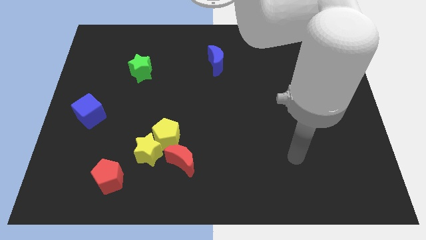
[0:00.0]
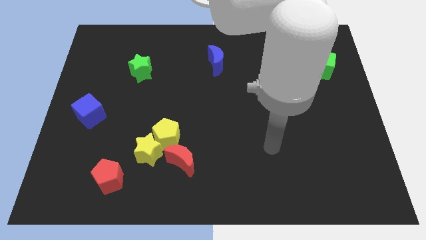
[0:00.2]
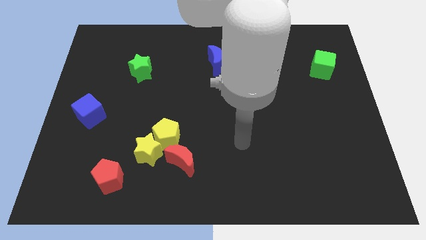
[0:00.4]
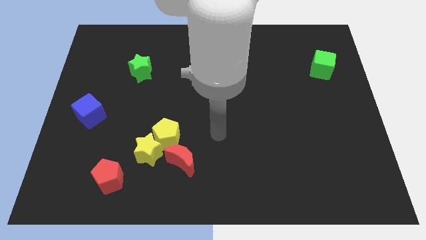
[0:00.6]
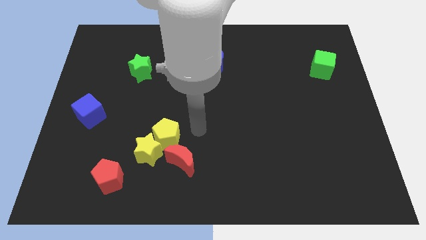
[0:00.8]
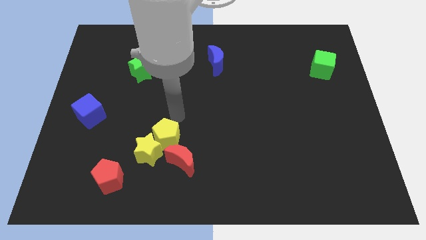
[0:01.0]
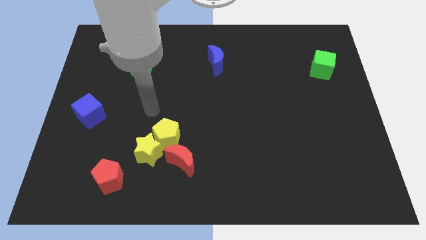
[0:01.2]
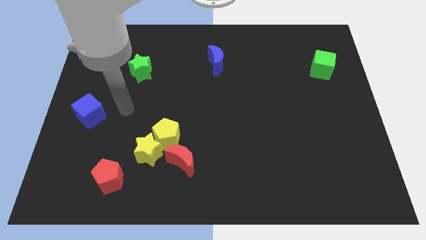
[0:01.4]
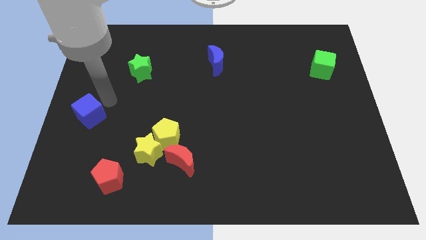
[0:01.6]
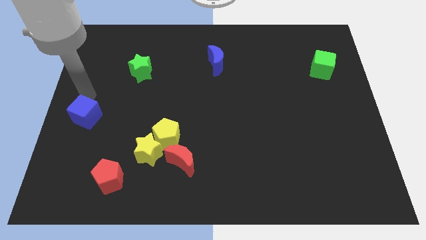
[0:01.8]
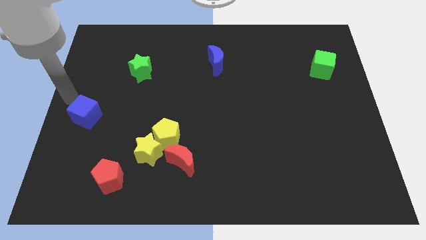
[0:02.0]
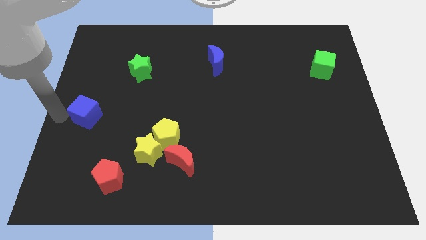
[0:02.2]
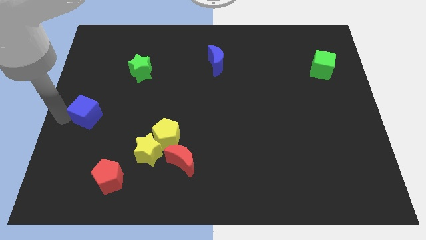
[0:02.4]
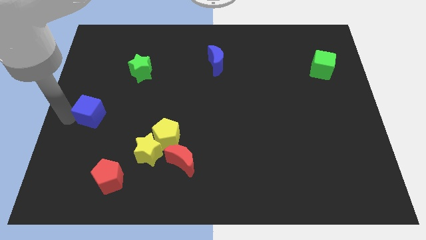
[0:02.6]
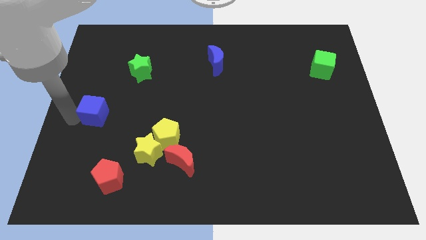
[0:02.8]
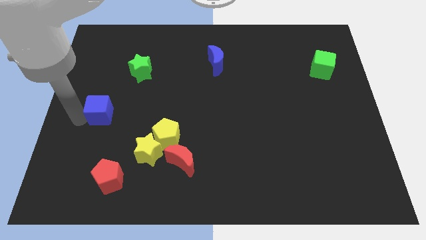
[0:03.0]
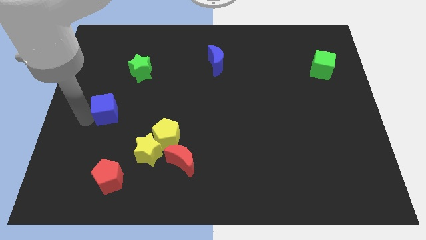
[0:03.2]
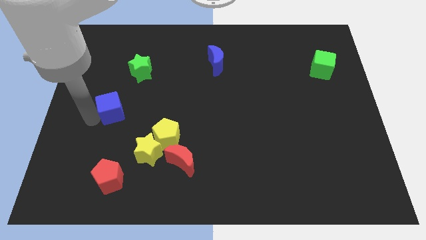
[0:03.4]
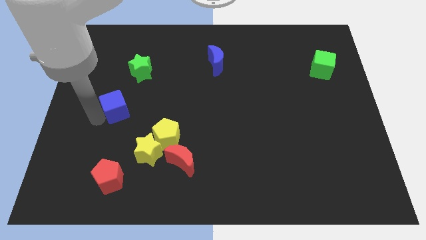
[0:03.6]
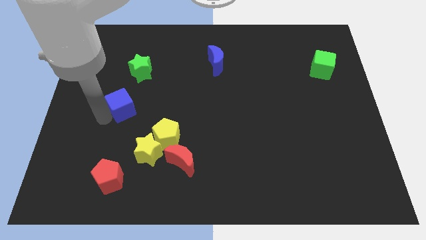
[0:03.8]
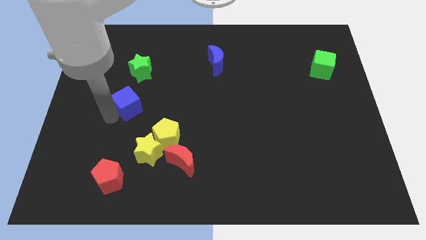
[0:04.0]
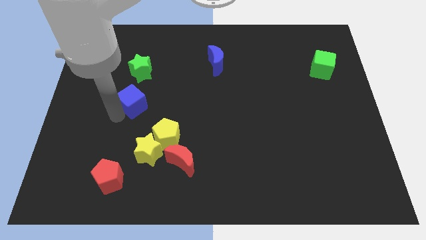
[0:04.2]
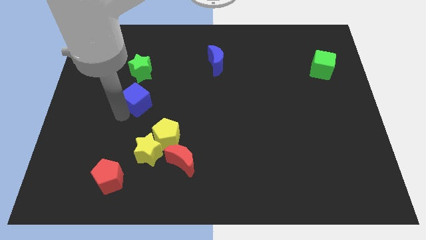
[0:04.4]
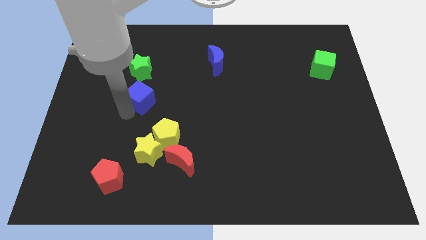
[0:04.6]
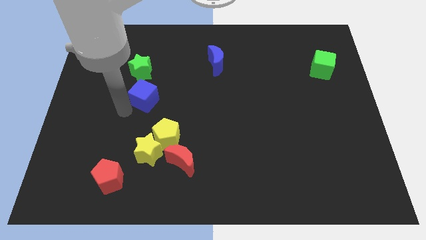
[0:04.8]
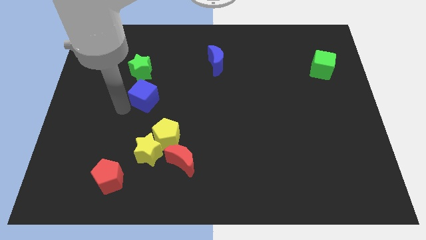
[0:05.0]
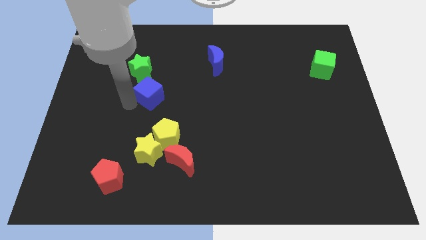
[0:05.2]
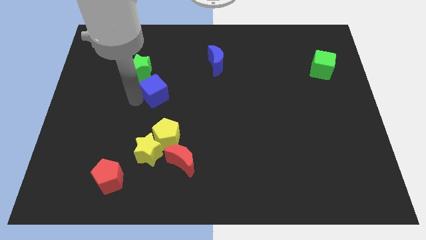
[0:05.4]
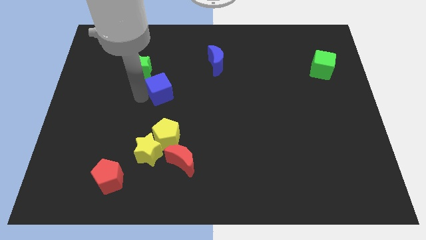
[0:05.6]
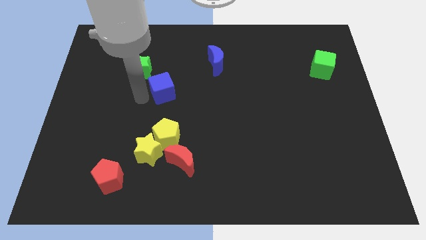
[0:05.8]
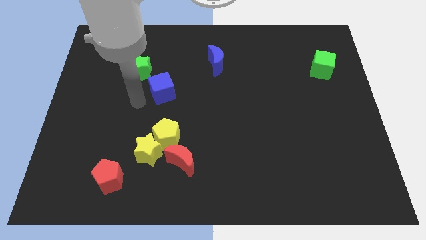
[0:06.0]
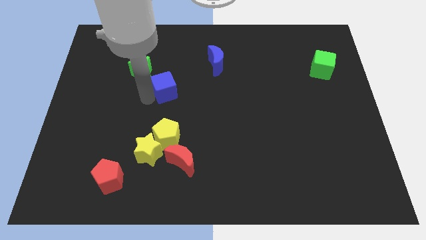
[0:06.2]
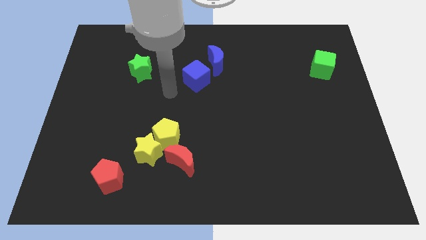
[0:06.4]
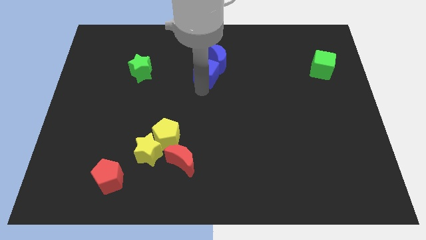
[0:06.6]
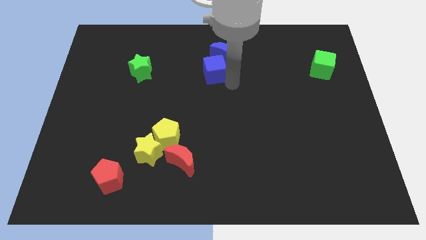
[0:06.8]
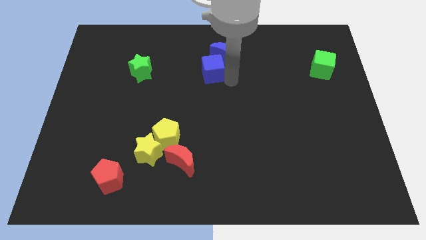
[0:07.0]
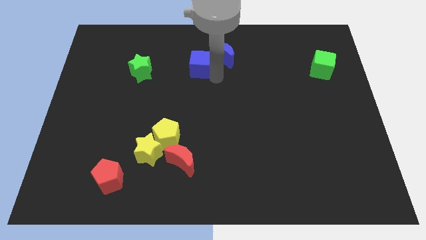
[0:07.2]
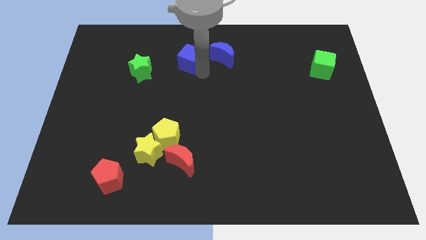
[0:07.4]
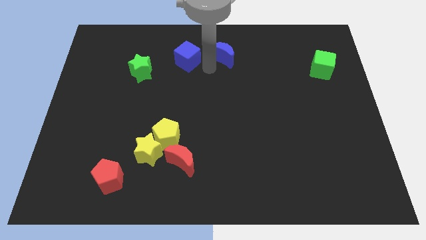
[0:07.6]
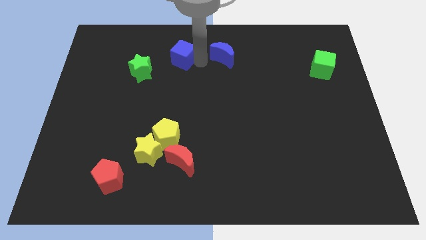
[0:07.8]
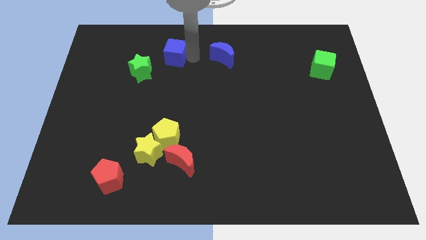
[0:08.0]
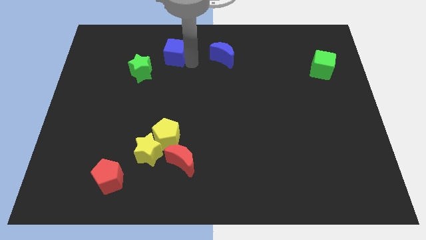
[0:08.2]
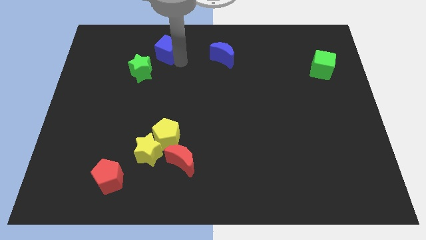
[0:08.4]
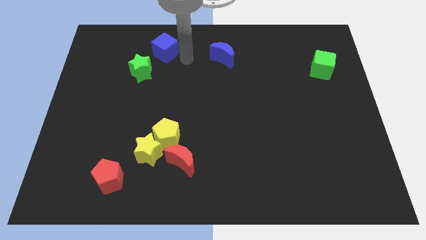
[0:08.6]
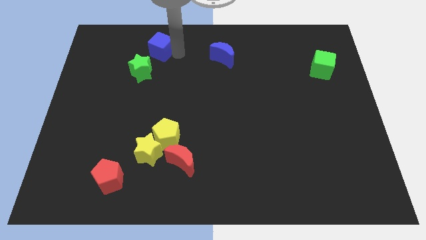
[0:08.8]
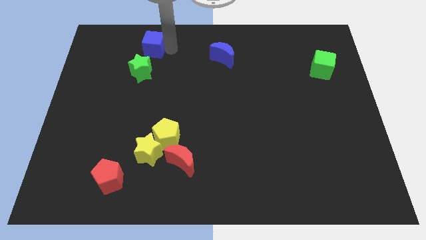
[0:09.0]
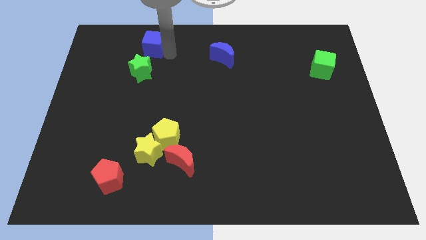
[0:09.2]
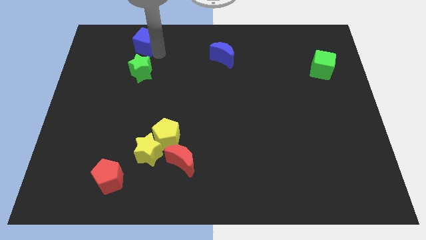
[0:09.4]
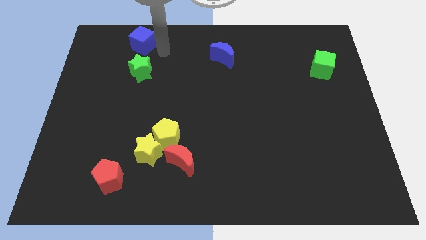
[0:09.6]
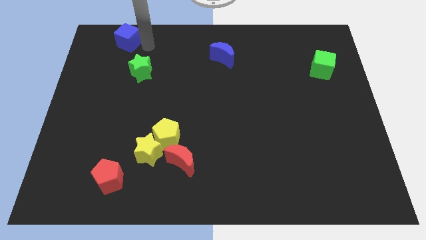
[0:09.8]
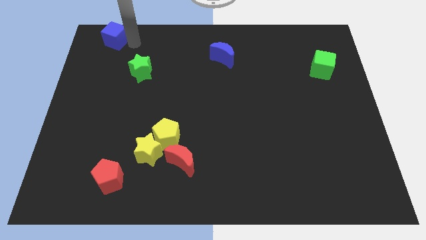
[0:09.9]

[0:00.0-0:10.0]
move the blue cube to the top left corner

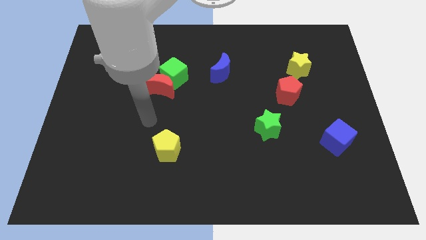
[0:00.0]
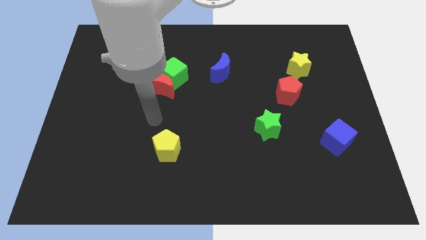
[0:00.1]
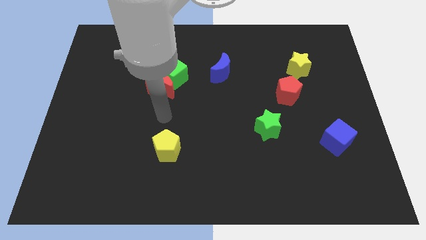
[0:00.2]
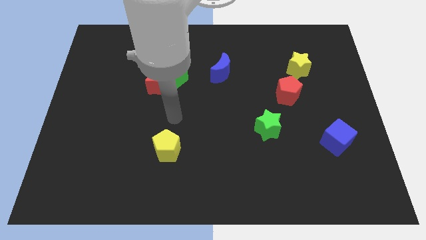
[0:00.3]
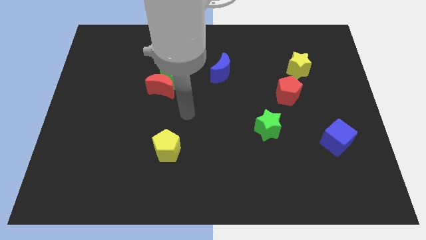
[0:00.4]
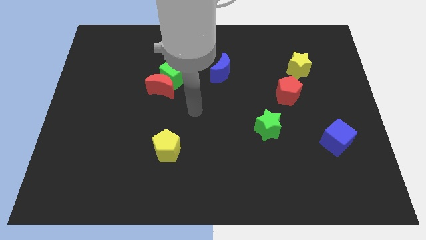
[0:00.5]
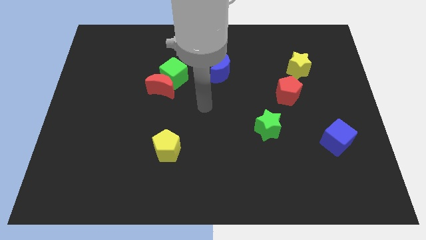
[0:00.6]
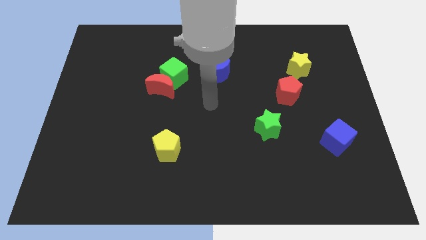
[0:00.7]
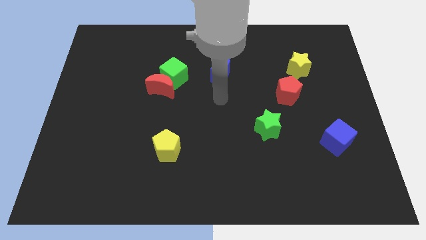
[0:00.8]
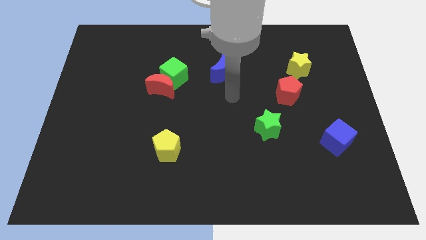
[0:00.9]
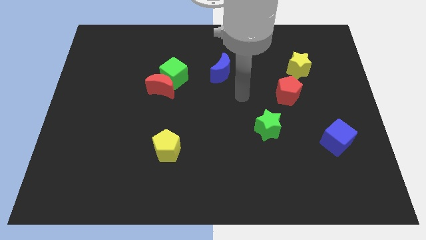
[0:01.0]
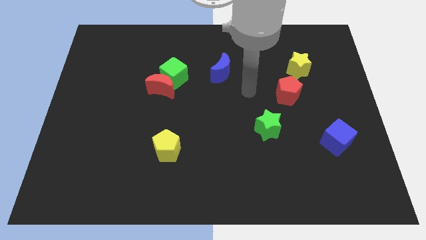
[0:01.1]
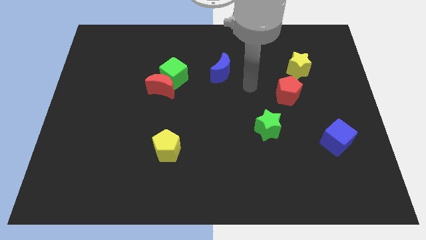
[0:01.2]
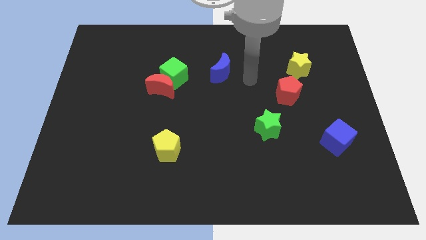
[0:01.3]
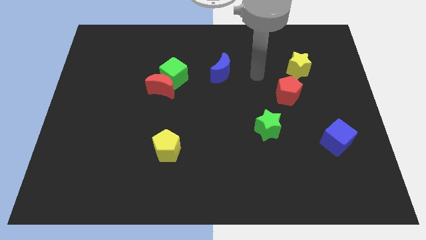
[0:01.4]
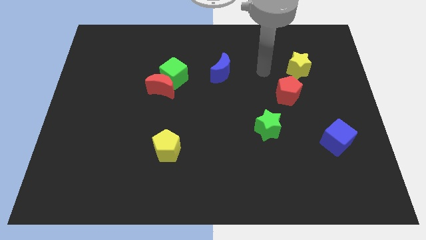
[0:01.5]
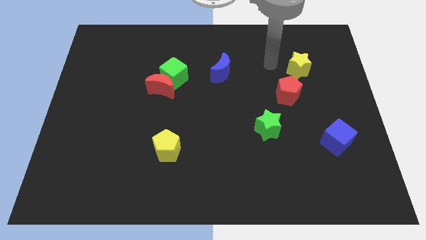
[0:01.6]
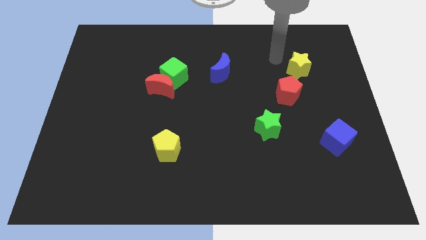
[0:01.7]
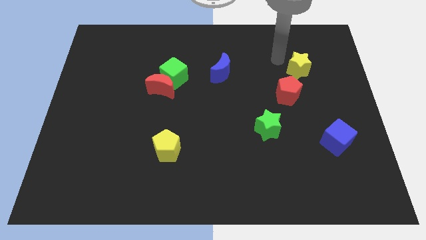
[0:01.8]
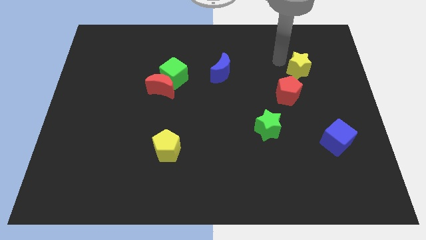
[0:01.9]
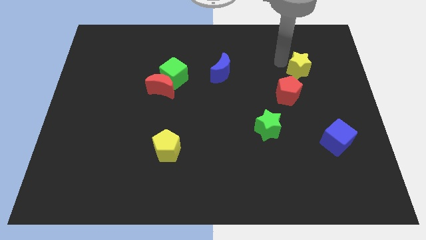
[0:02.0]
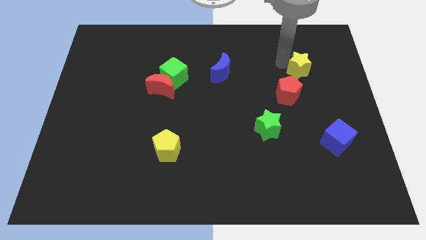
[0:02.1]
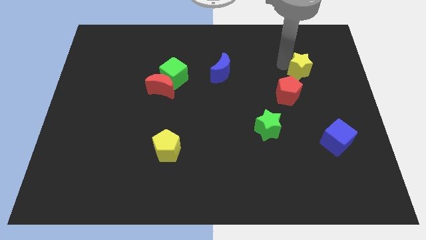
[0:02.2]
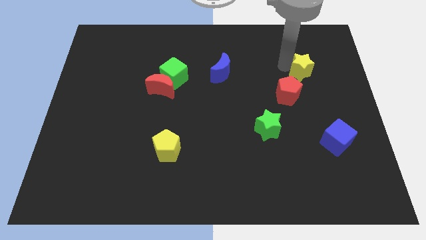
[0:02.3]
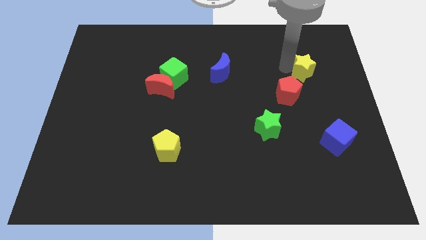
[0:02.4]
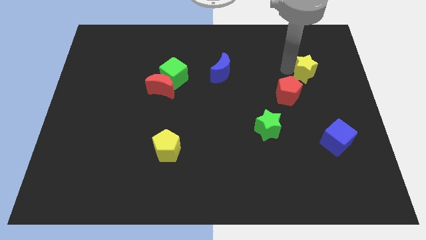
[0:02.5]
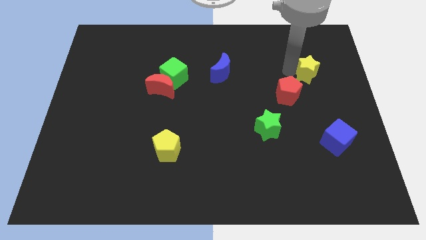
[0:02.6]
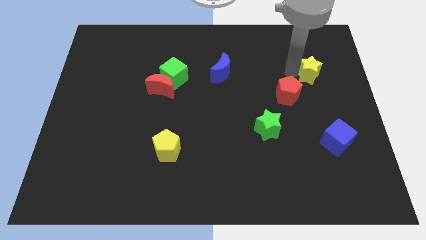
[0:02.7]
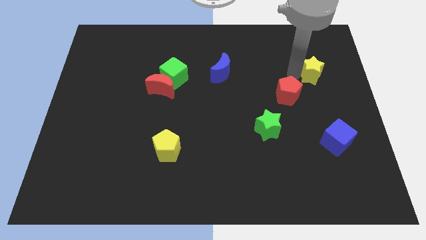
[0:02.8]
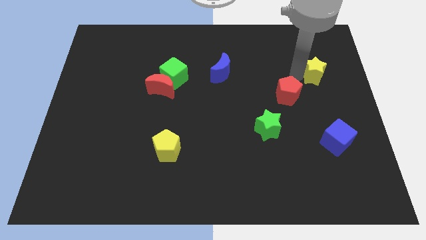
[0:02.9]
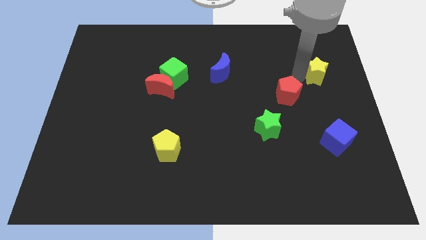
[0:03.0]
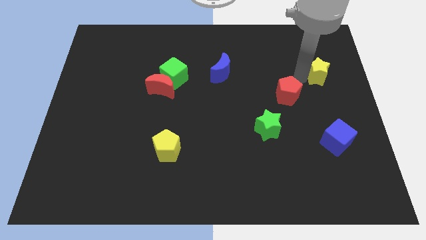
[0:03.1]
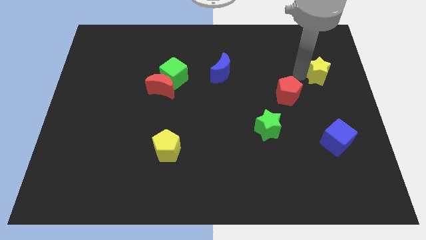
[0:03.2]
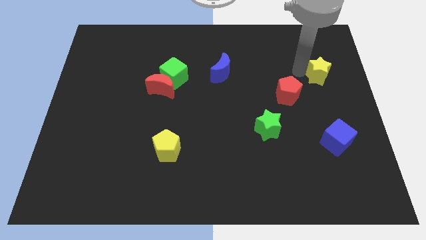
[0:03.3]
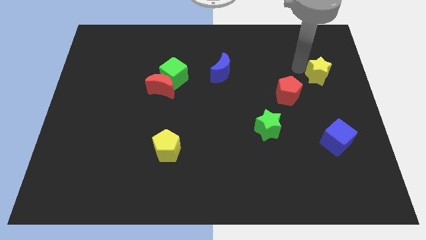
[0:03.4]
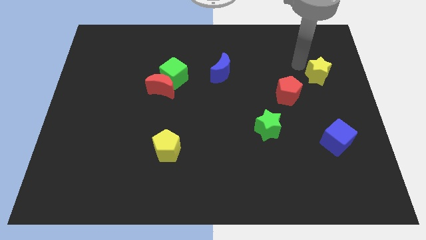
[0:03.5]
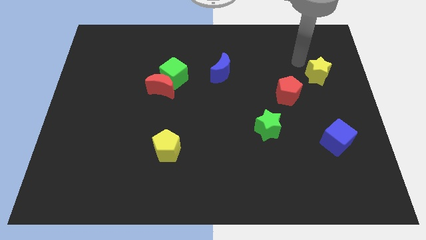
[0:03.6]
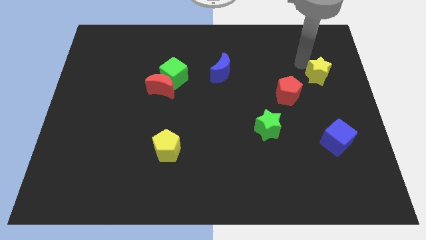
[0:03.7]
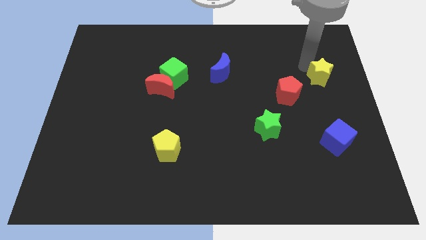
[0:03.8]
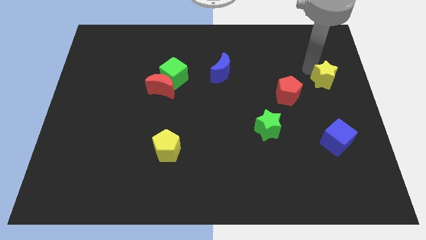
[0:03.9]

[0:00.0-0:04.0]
put the yellow star to the right side of the board
